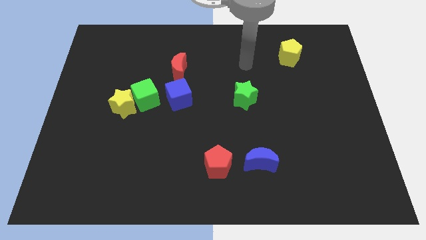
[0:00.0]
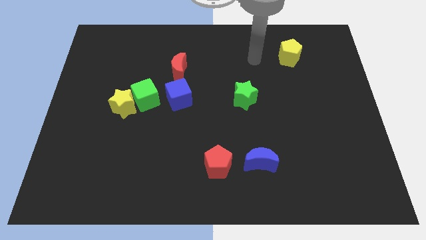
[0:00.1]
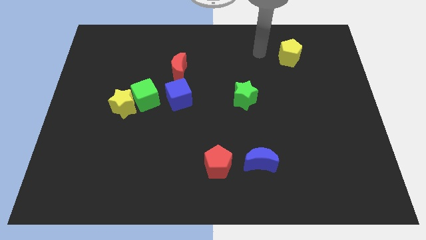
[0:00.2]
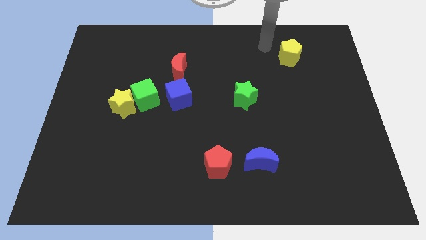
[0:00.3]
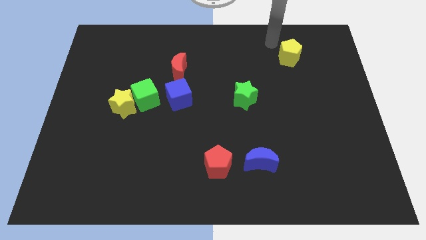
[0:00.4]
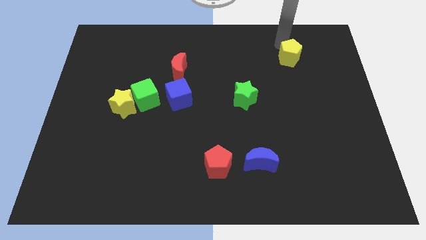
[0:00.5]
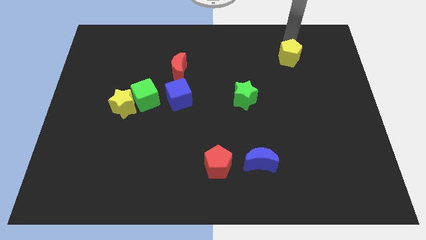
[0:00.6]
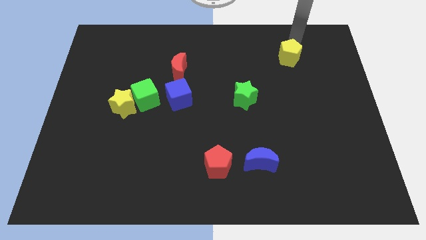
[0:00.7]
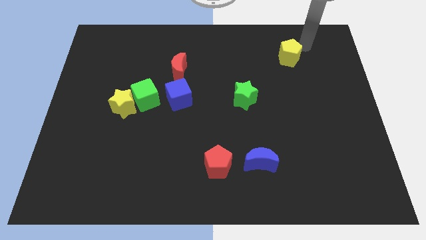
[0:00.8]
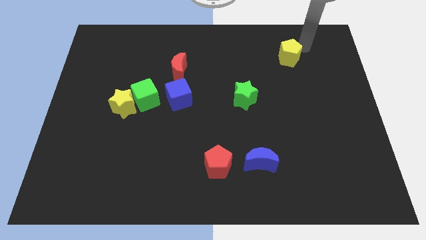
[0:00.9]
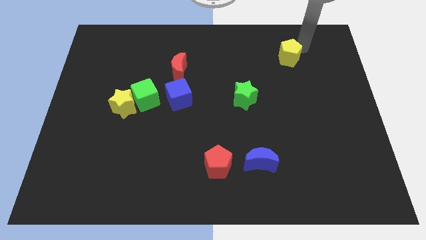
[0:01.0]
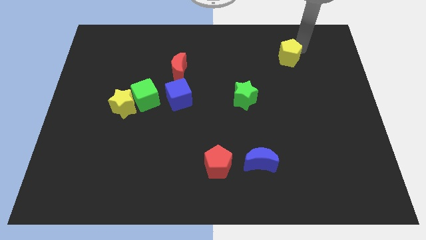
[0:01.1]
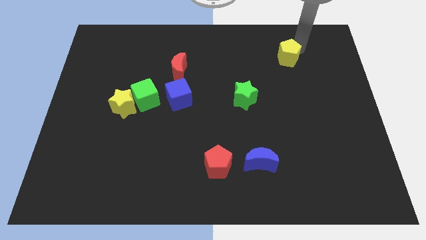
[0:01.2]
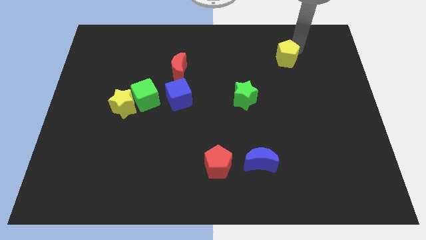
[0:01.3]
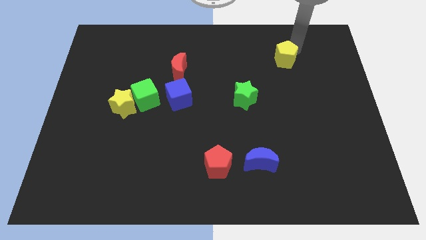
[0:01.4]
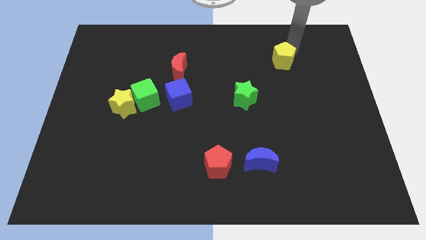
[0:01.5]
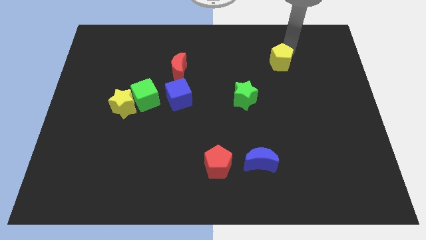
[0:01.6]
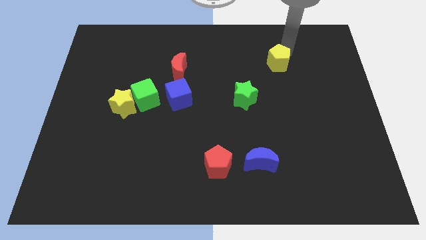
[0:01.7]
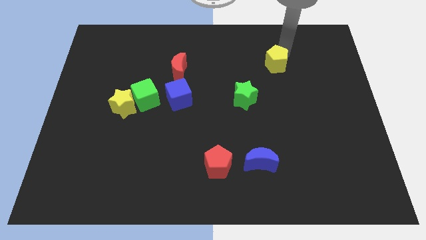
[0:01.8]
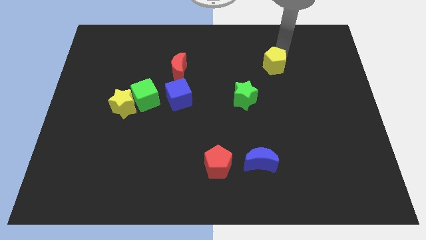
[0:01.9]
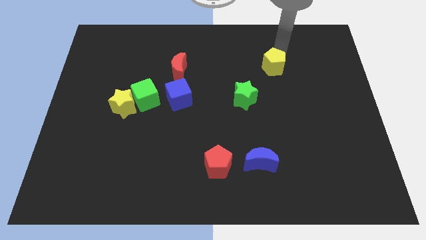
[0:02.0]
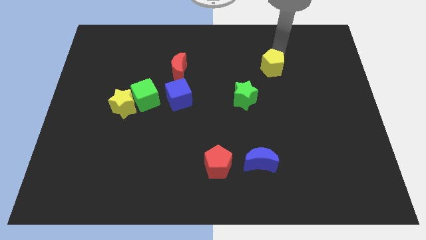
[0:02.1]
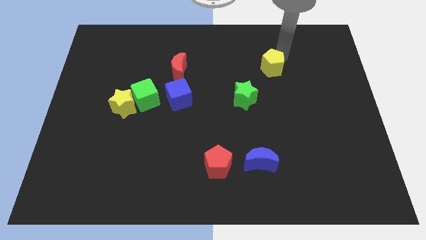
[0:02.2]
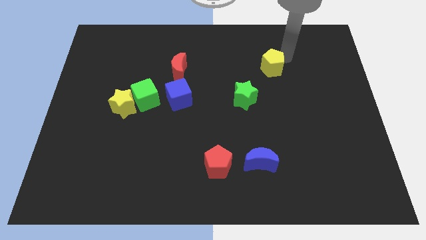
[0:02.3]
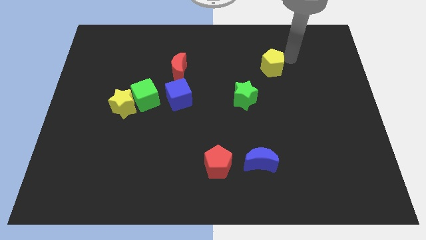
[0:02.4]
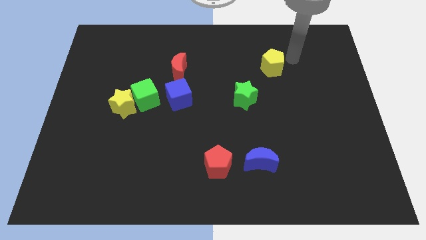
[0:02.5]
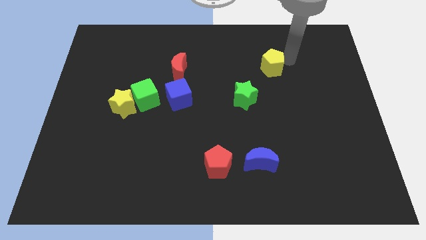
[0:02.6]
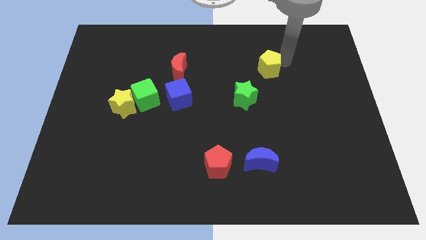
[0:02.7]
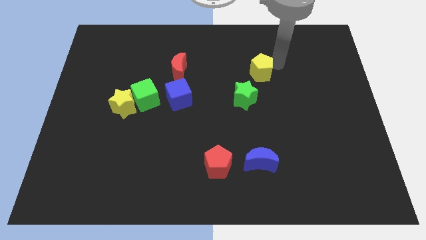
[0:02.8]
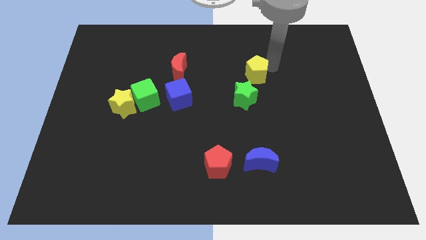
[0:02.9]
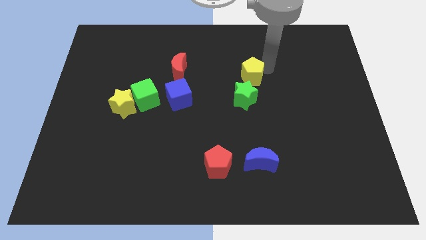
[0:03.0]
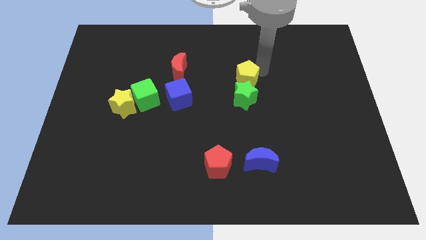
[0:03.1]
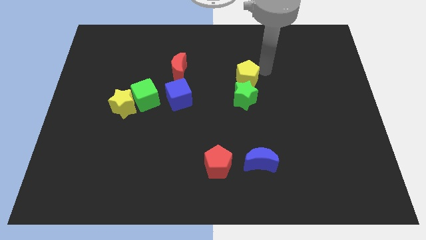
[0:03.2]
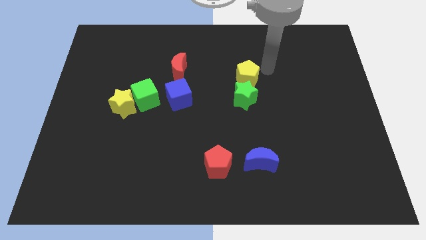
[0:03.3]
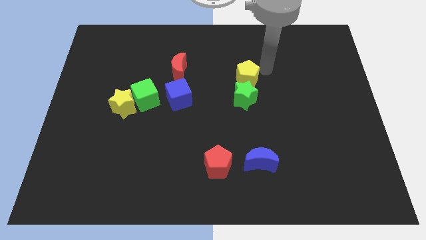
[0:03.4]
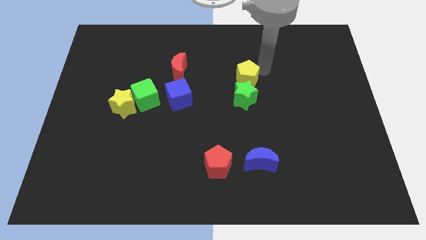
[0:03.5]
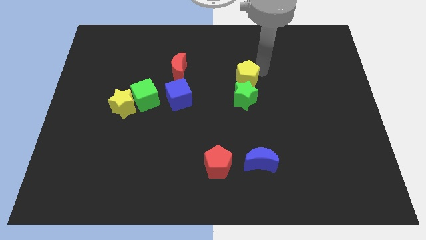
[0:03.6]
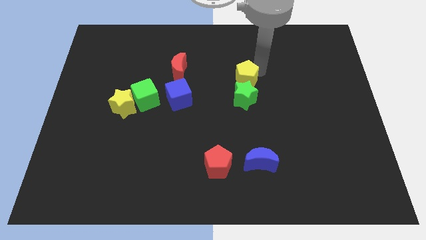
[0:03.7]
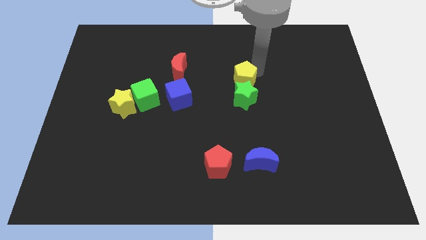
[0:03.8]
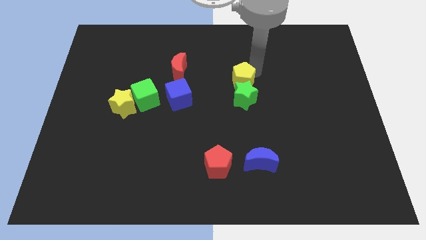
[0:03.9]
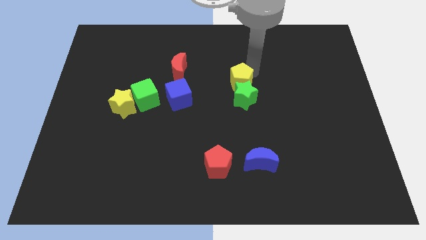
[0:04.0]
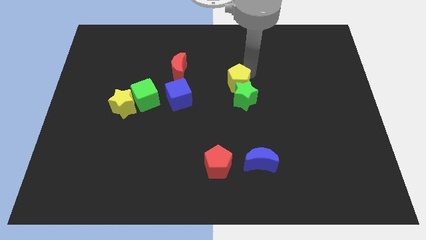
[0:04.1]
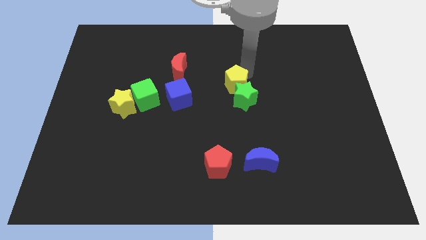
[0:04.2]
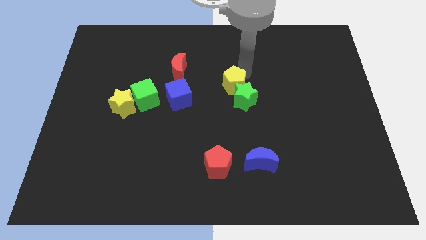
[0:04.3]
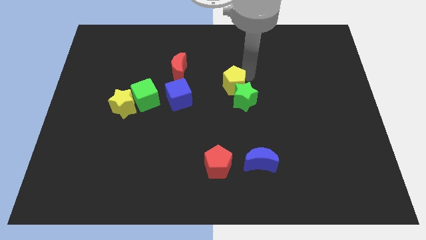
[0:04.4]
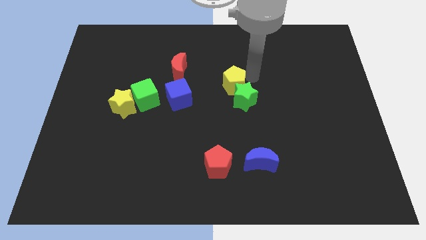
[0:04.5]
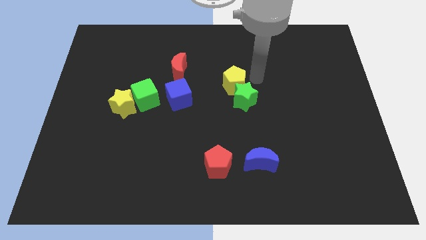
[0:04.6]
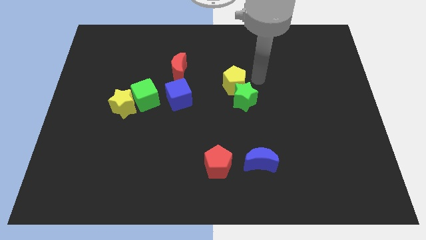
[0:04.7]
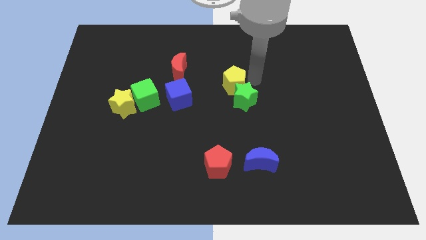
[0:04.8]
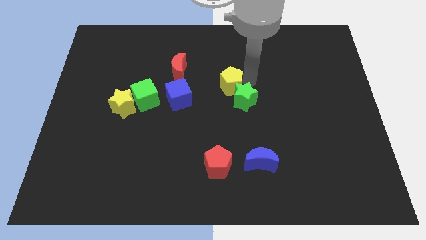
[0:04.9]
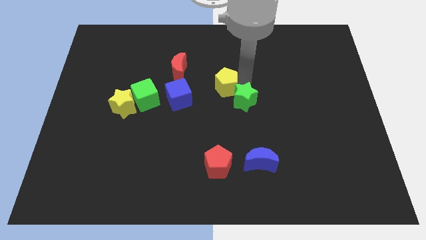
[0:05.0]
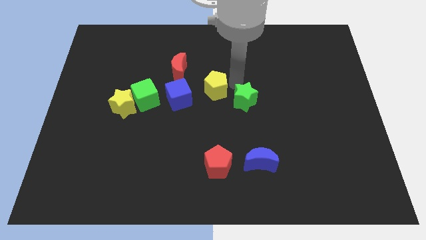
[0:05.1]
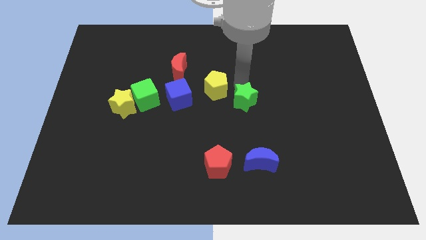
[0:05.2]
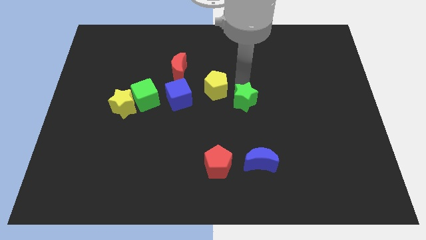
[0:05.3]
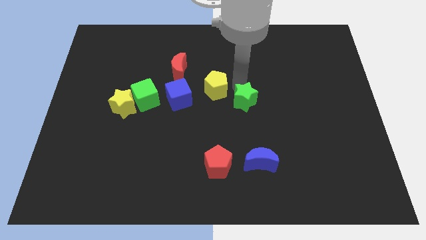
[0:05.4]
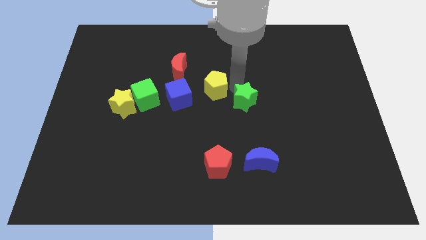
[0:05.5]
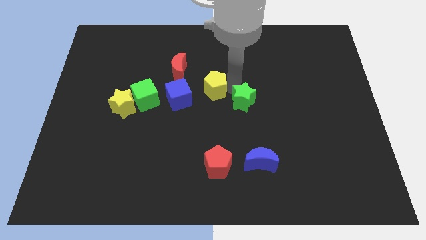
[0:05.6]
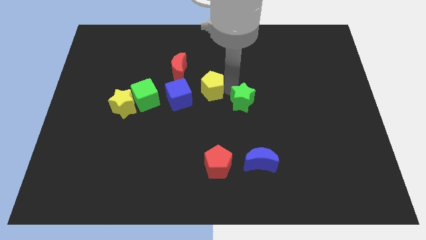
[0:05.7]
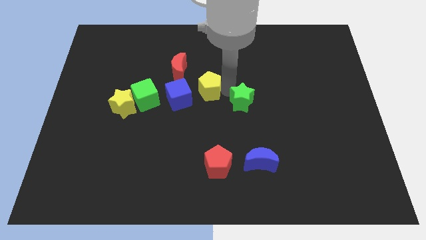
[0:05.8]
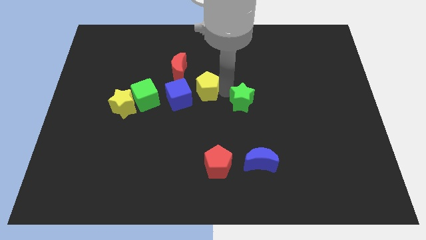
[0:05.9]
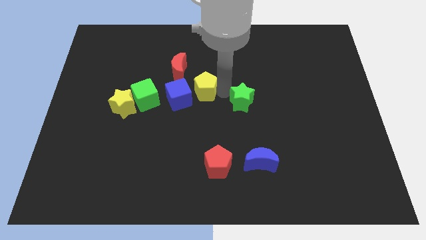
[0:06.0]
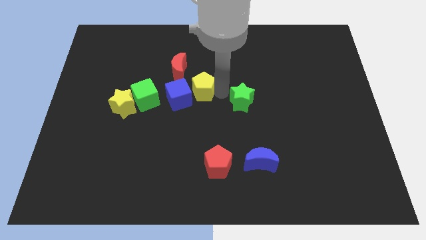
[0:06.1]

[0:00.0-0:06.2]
push the yellow pentagon close to the blue cube

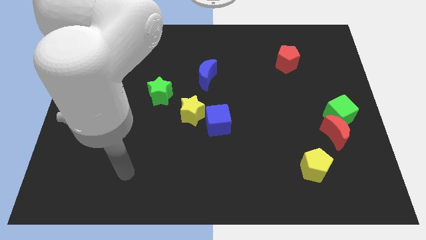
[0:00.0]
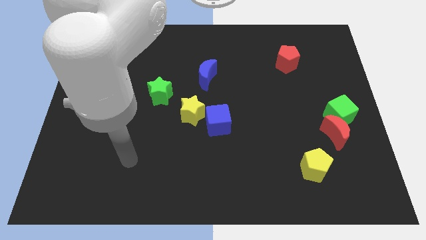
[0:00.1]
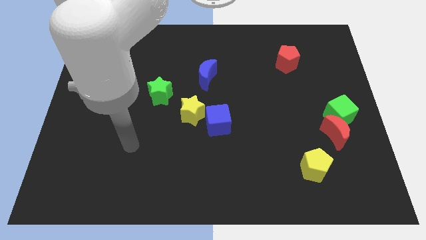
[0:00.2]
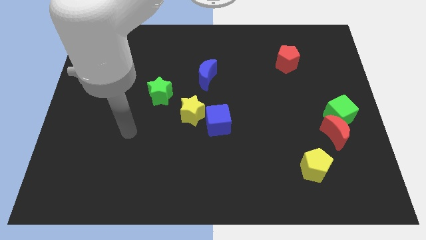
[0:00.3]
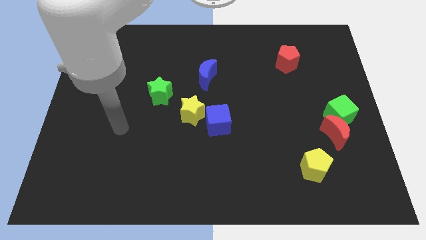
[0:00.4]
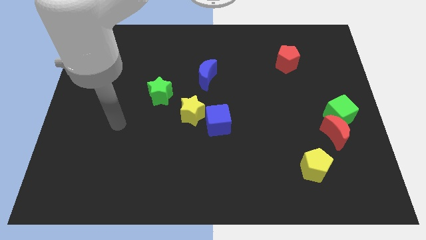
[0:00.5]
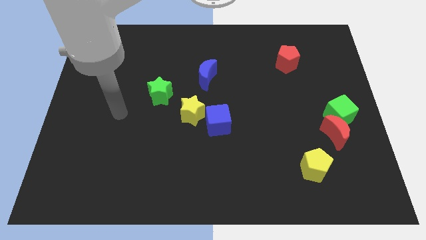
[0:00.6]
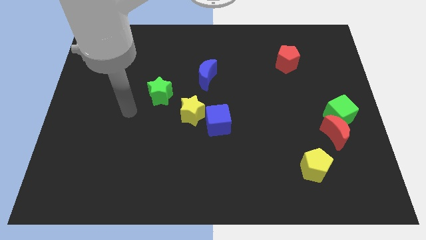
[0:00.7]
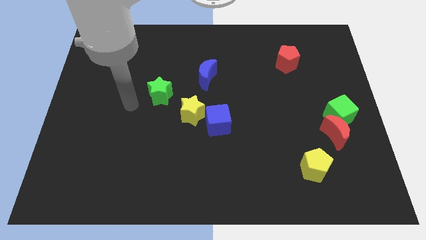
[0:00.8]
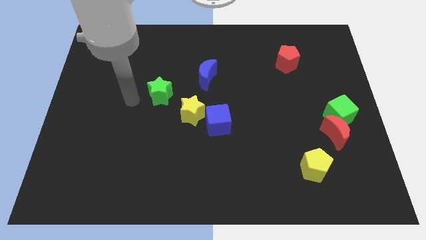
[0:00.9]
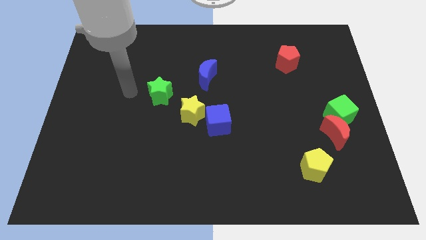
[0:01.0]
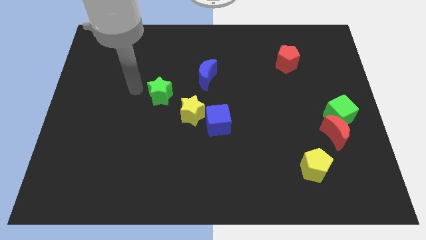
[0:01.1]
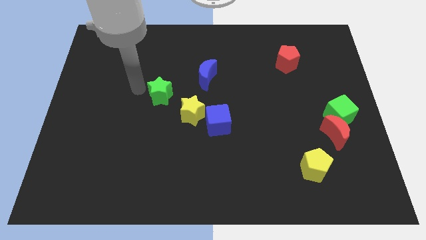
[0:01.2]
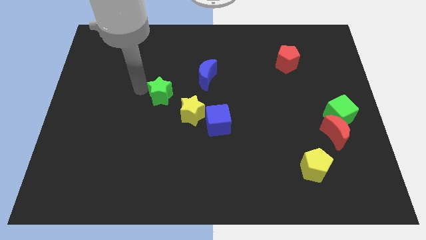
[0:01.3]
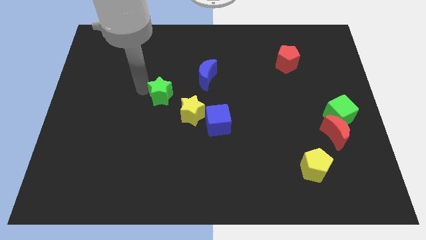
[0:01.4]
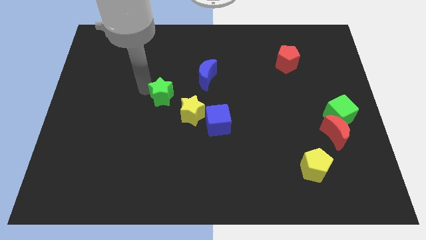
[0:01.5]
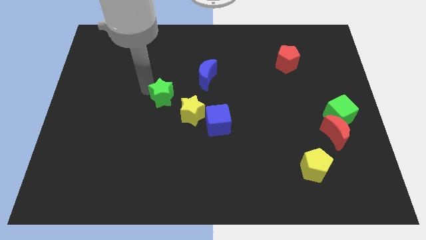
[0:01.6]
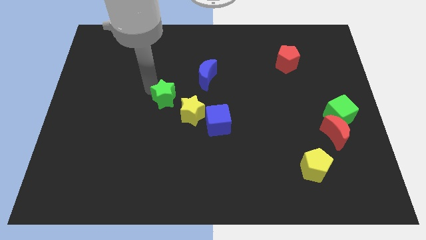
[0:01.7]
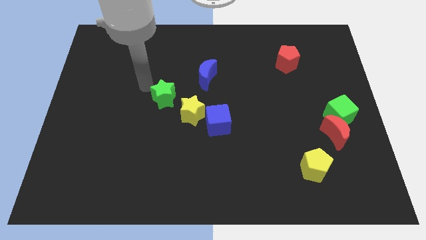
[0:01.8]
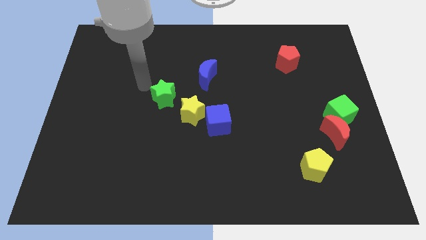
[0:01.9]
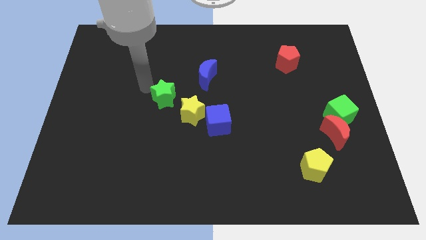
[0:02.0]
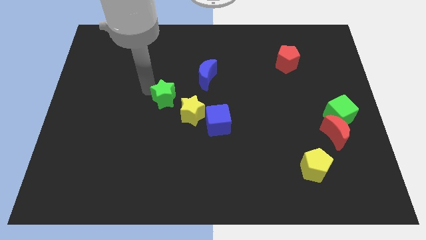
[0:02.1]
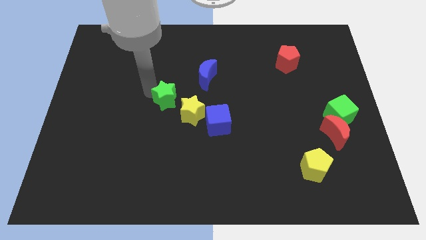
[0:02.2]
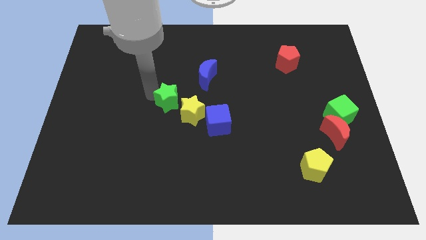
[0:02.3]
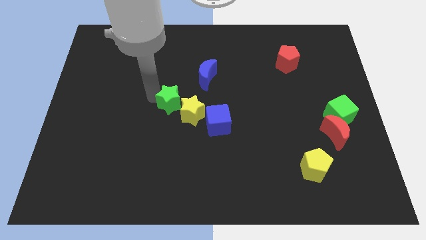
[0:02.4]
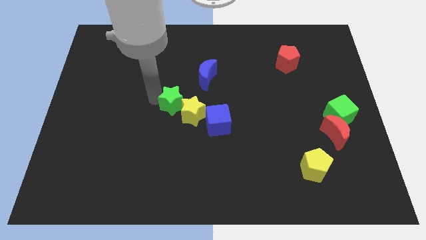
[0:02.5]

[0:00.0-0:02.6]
put the green star next to the yellow star
